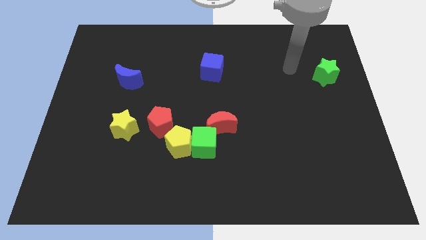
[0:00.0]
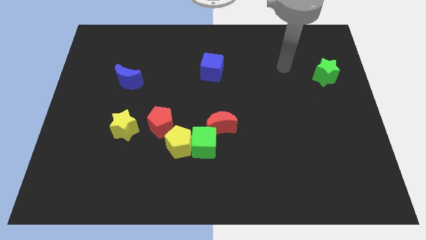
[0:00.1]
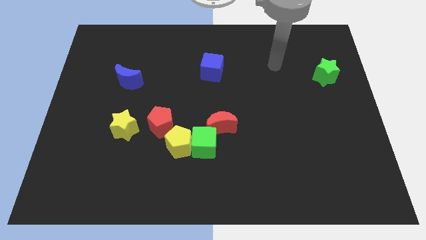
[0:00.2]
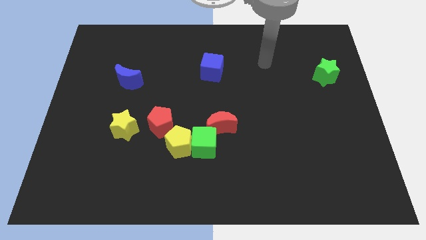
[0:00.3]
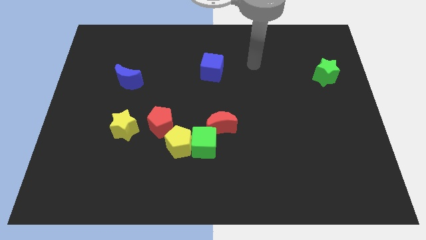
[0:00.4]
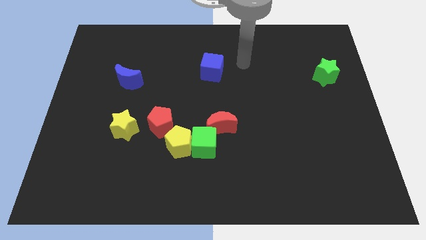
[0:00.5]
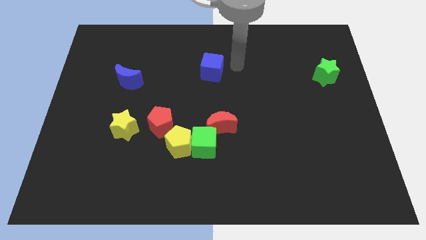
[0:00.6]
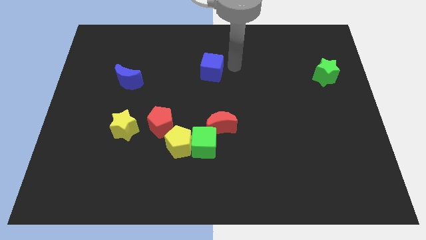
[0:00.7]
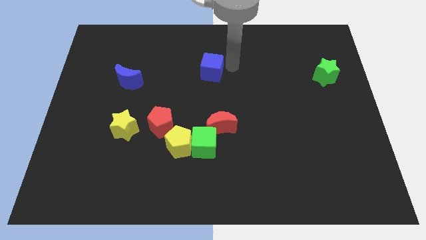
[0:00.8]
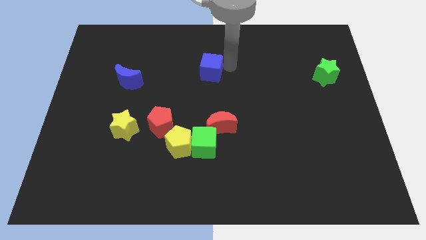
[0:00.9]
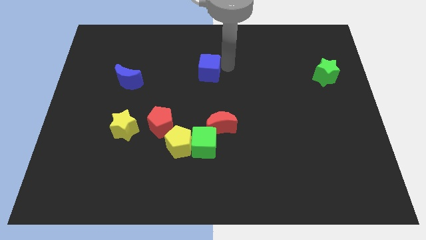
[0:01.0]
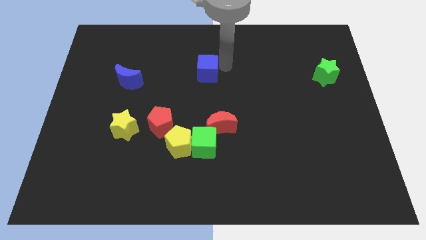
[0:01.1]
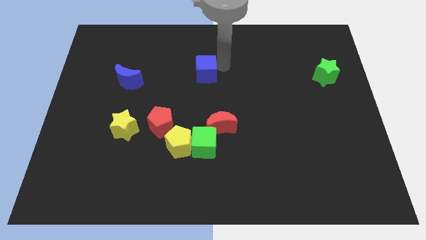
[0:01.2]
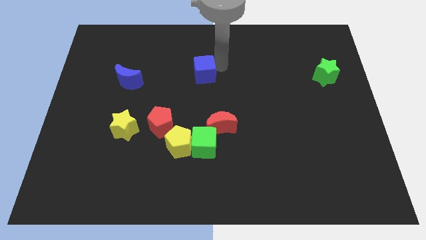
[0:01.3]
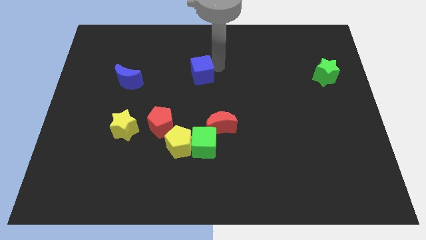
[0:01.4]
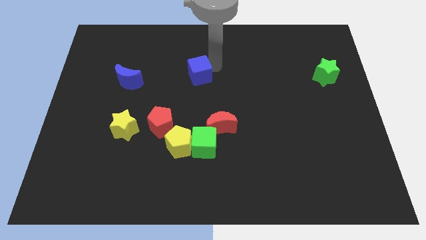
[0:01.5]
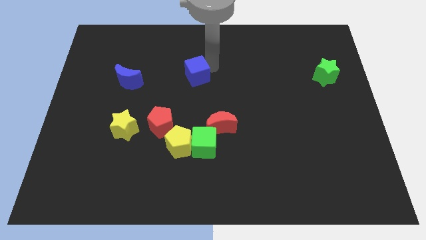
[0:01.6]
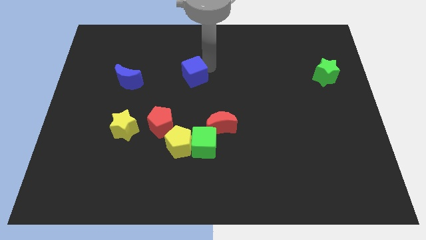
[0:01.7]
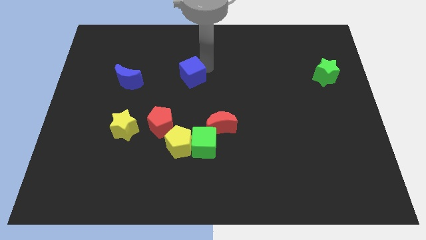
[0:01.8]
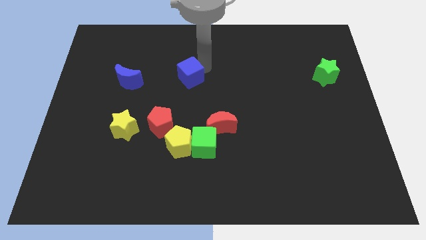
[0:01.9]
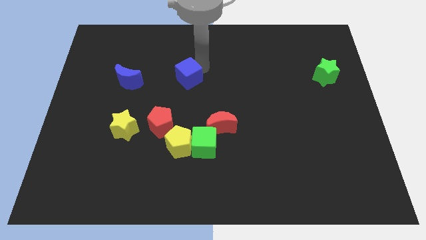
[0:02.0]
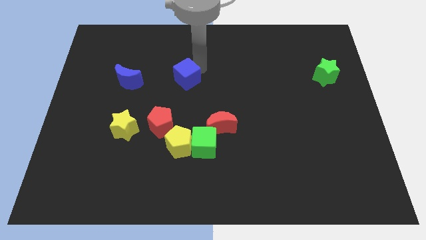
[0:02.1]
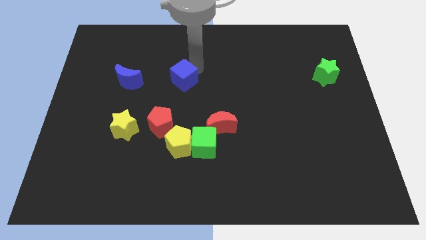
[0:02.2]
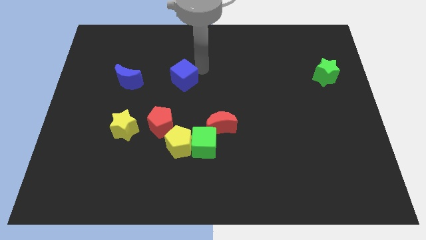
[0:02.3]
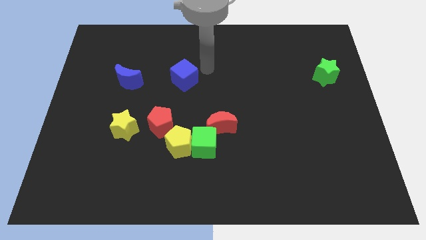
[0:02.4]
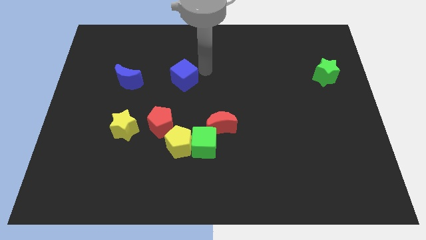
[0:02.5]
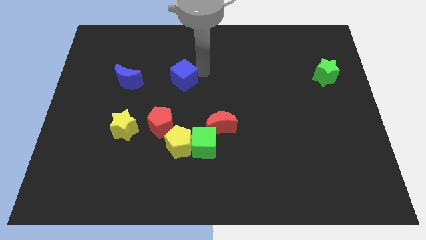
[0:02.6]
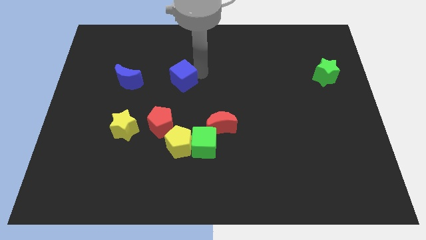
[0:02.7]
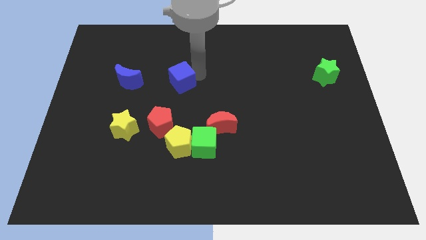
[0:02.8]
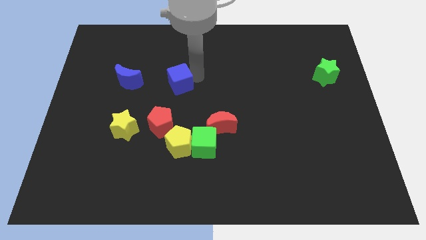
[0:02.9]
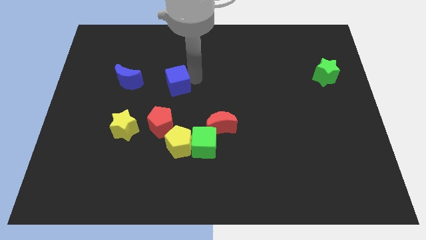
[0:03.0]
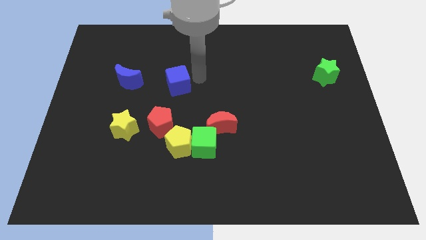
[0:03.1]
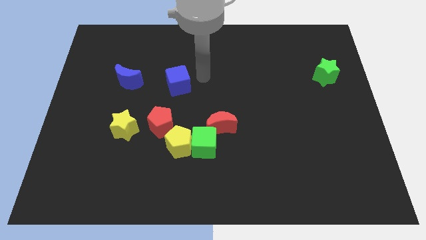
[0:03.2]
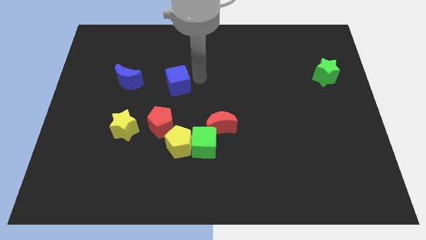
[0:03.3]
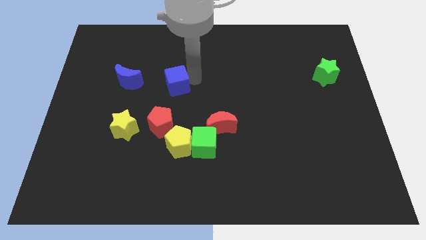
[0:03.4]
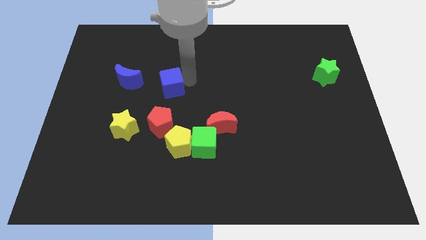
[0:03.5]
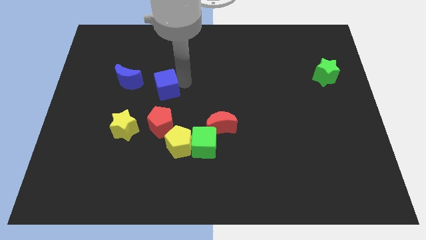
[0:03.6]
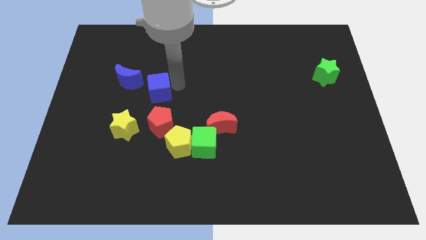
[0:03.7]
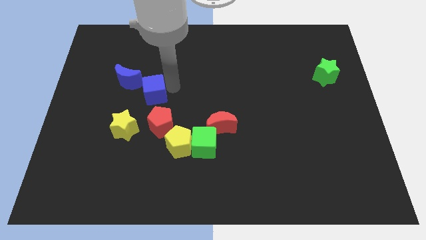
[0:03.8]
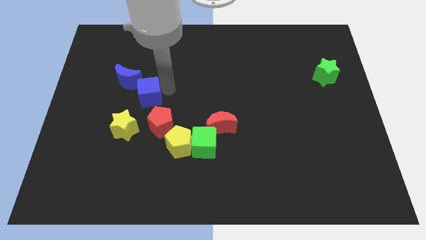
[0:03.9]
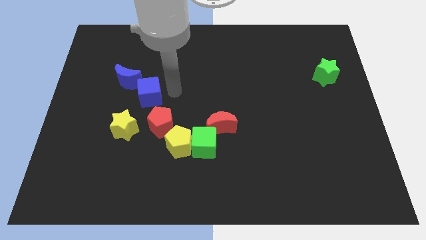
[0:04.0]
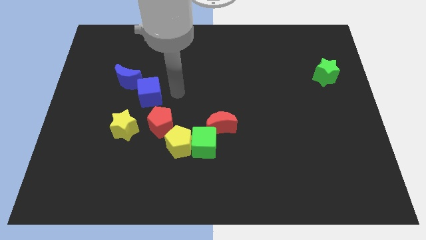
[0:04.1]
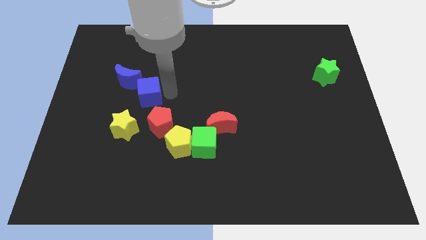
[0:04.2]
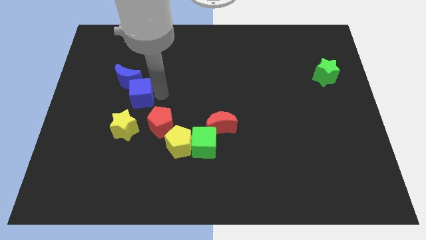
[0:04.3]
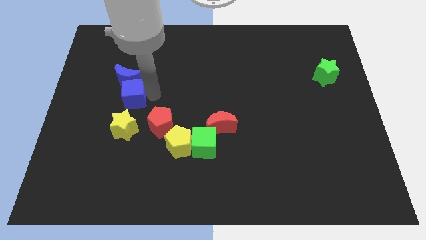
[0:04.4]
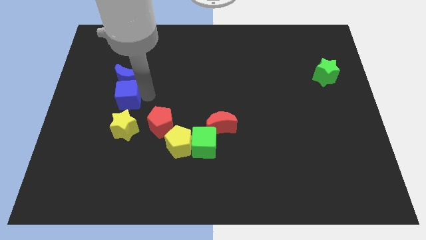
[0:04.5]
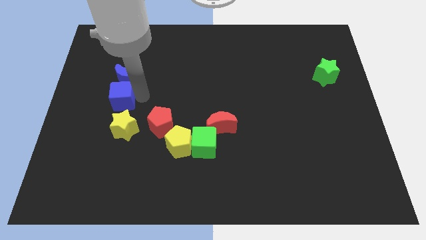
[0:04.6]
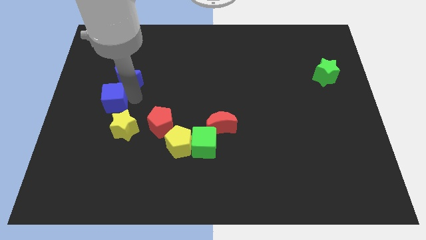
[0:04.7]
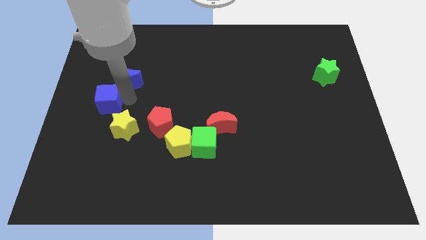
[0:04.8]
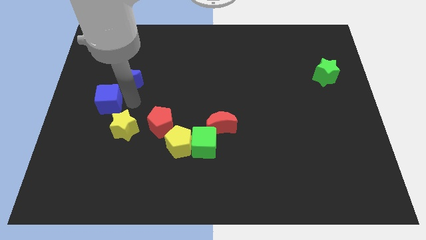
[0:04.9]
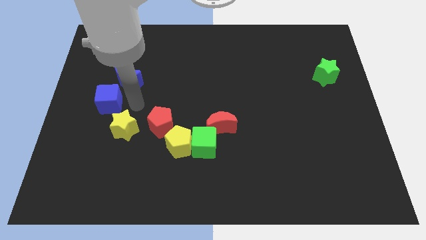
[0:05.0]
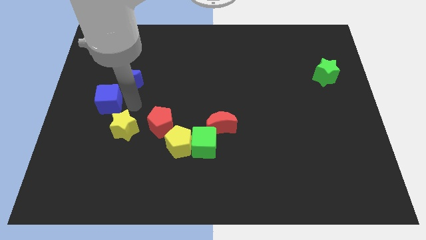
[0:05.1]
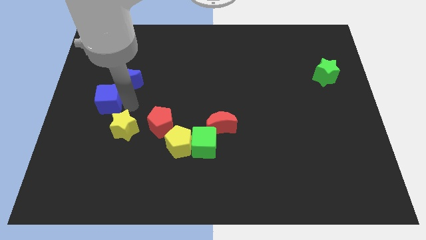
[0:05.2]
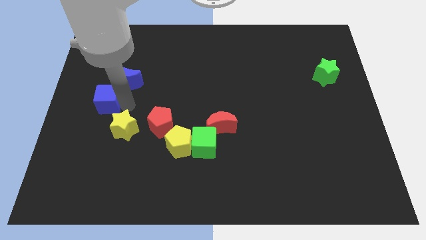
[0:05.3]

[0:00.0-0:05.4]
slide the blue cube to the left side

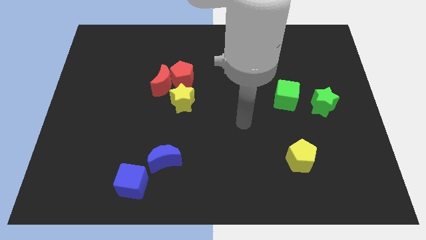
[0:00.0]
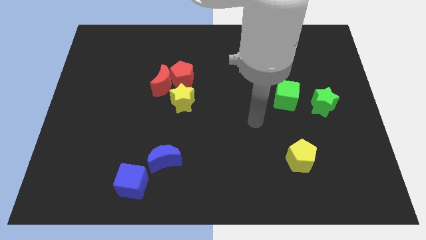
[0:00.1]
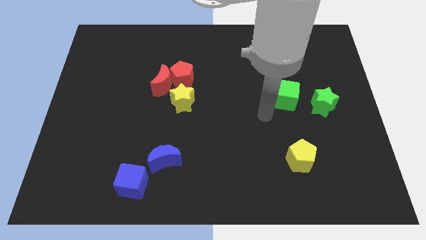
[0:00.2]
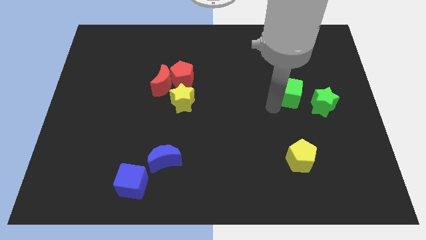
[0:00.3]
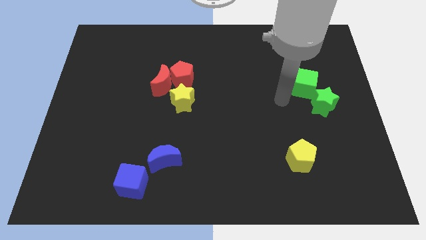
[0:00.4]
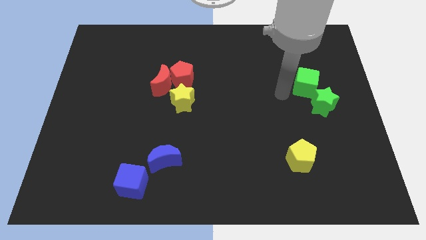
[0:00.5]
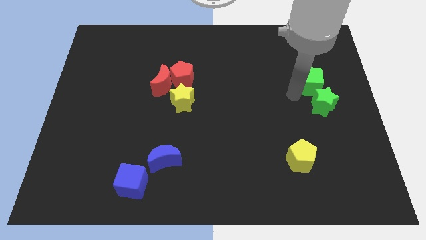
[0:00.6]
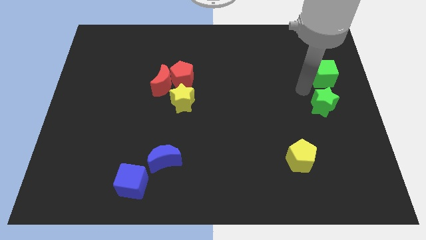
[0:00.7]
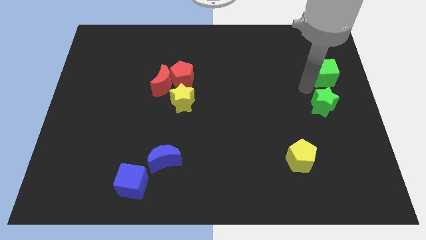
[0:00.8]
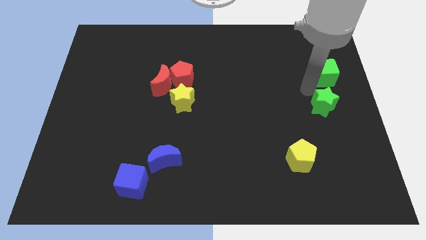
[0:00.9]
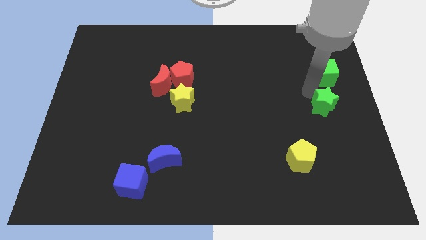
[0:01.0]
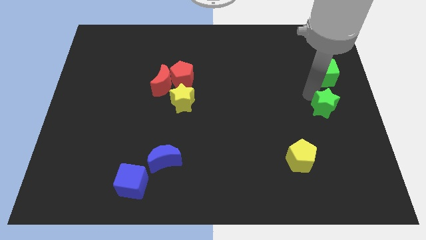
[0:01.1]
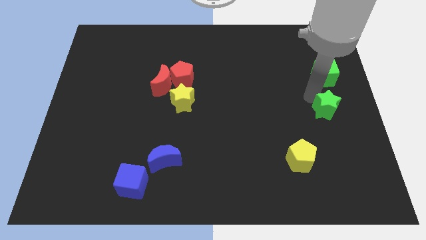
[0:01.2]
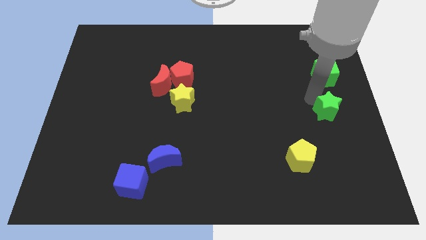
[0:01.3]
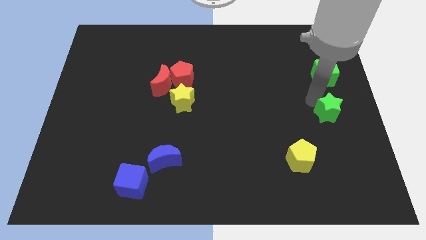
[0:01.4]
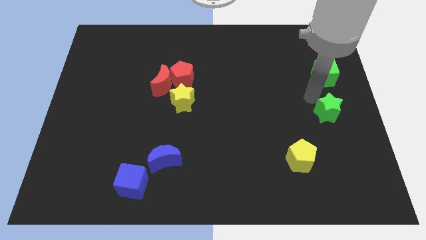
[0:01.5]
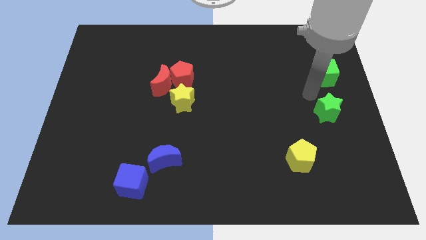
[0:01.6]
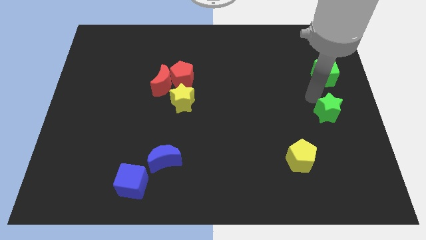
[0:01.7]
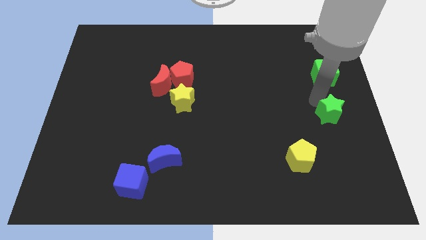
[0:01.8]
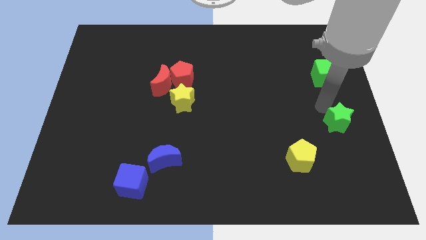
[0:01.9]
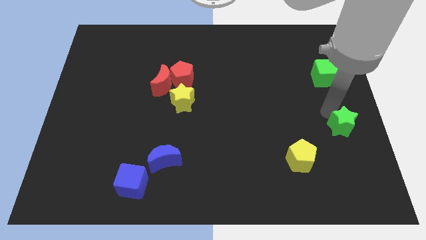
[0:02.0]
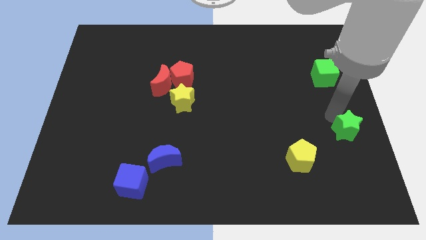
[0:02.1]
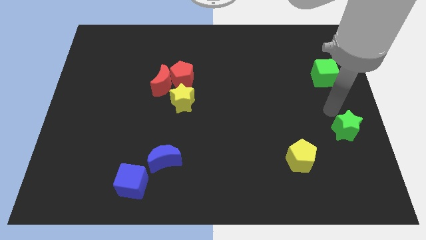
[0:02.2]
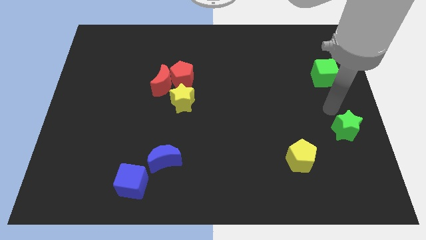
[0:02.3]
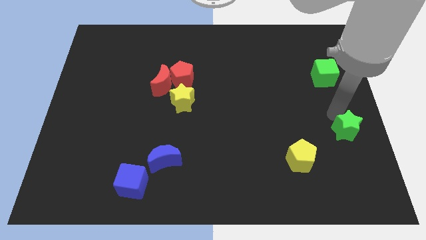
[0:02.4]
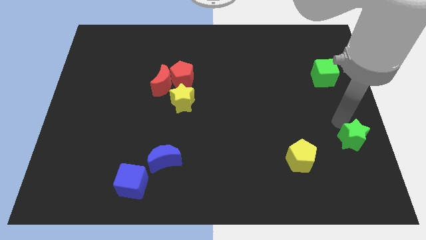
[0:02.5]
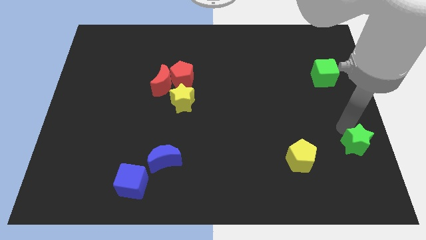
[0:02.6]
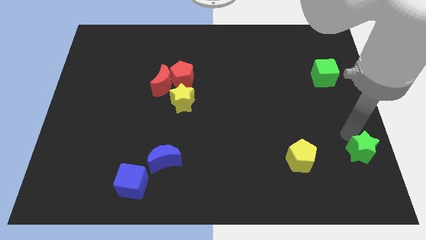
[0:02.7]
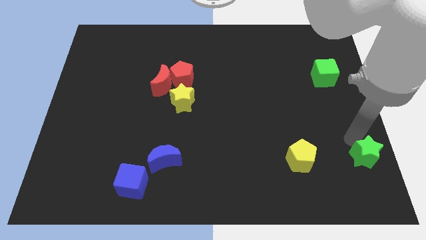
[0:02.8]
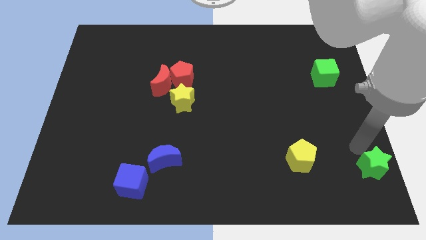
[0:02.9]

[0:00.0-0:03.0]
push the green star to the bottom right
